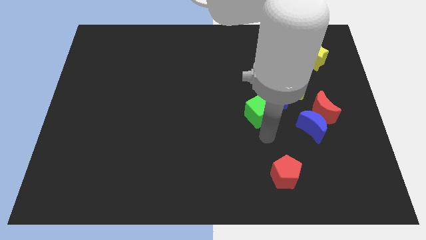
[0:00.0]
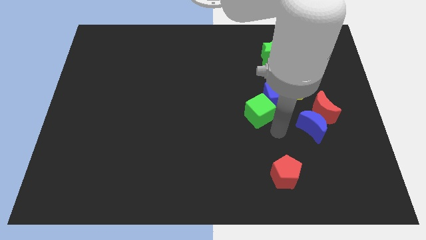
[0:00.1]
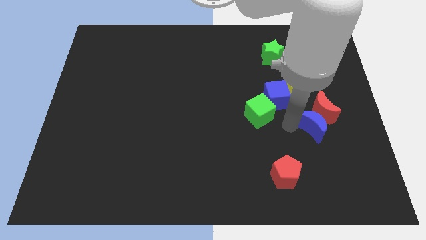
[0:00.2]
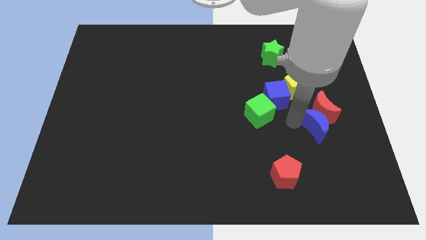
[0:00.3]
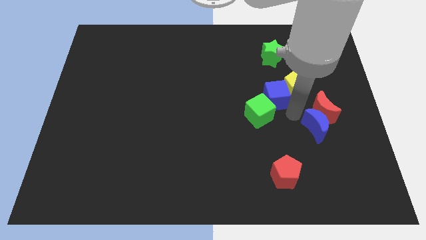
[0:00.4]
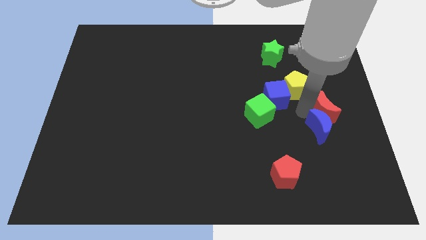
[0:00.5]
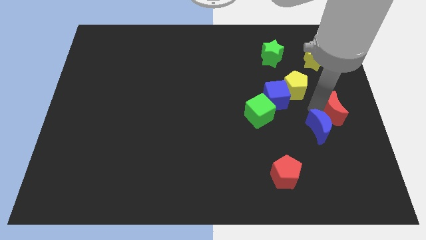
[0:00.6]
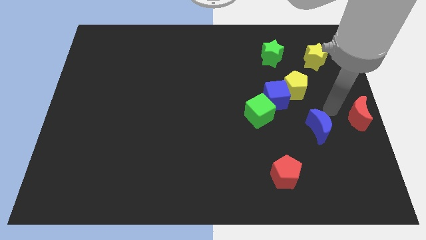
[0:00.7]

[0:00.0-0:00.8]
separate the blue moon from the red moon

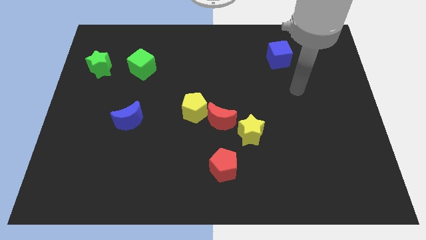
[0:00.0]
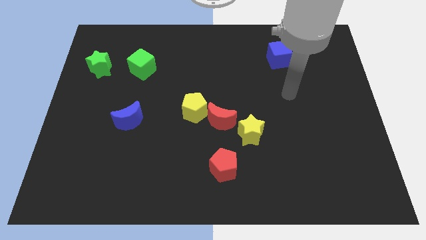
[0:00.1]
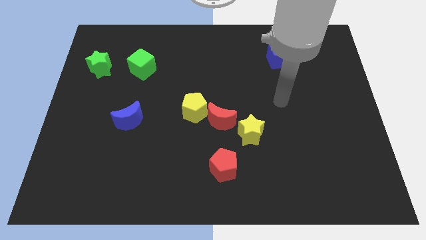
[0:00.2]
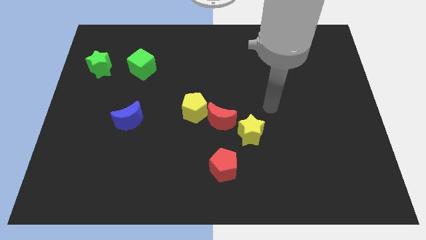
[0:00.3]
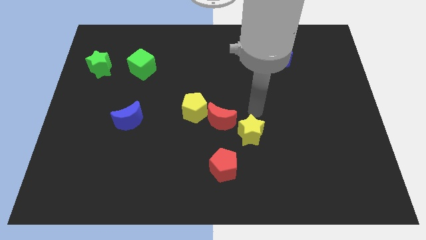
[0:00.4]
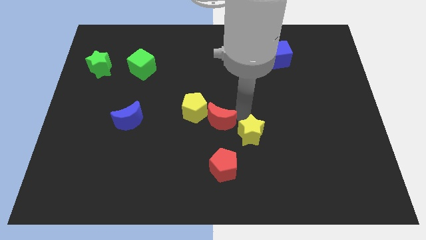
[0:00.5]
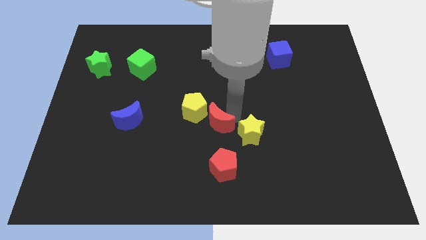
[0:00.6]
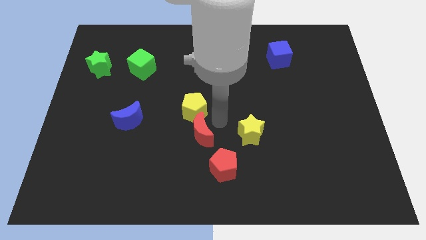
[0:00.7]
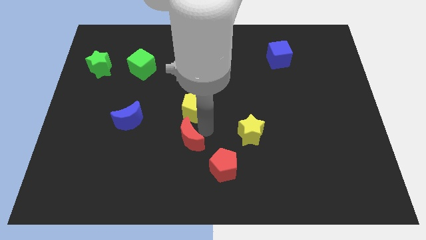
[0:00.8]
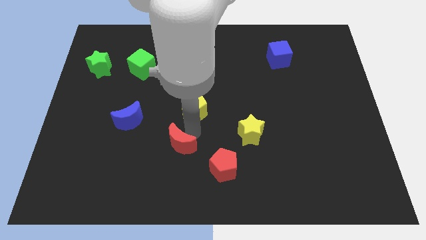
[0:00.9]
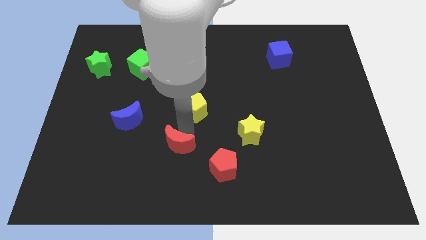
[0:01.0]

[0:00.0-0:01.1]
separate the yellow pentagon from the red moon

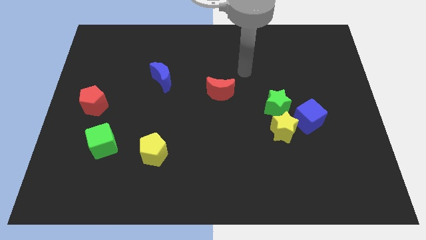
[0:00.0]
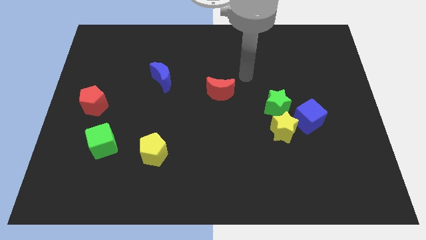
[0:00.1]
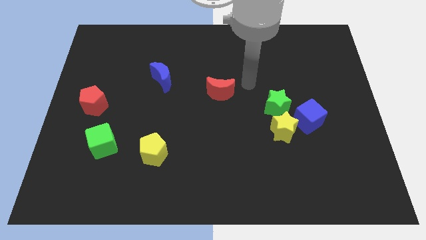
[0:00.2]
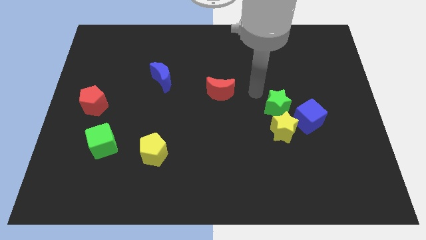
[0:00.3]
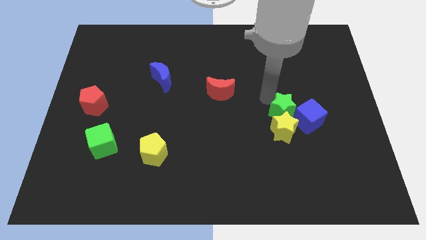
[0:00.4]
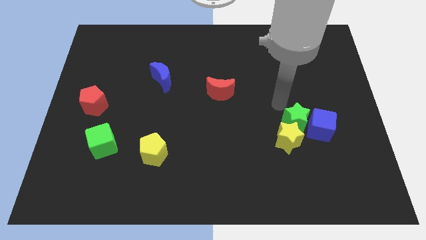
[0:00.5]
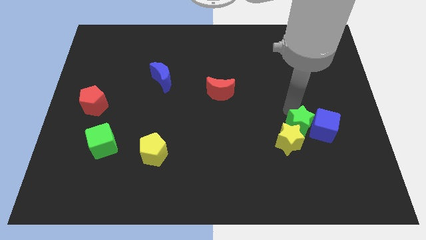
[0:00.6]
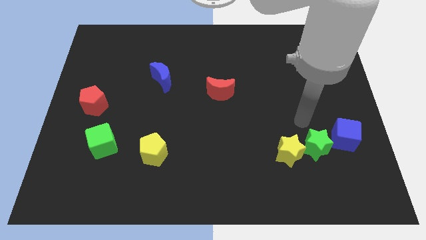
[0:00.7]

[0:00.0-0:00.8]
separate the yellow star from the green star and blue cube

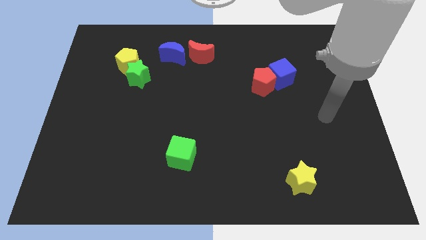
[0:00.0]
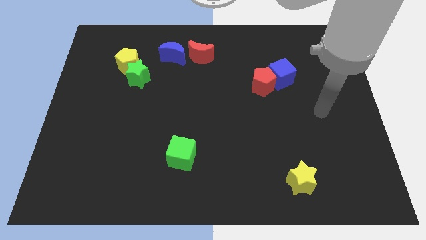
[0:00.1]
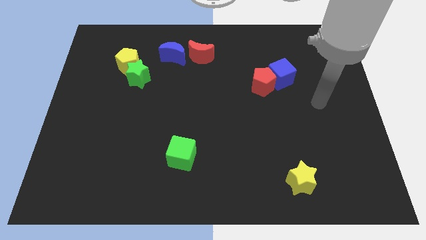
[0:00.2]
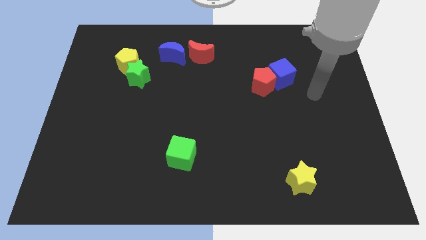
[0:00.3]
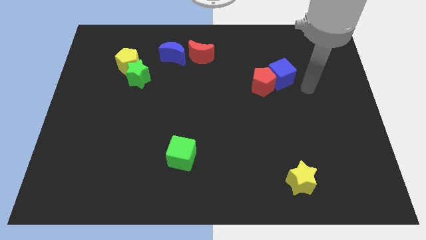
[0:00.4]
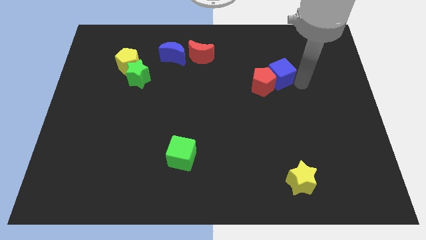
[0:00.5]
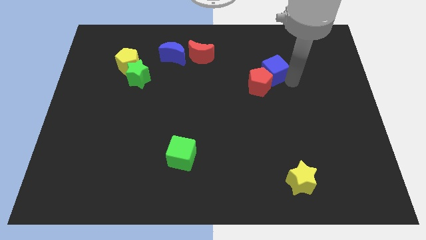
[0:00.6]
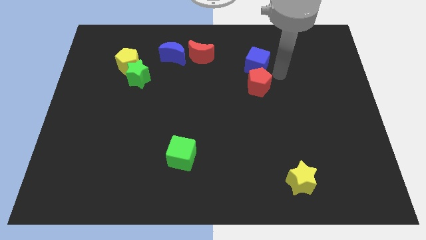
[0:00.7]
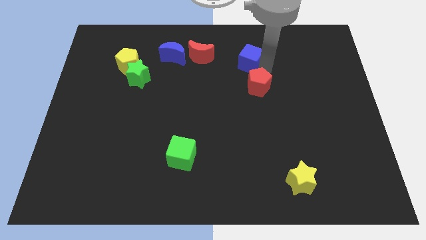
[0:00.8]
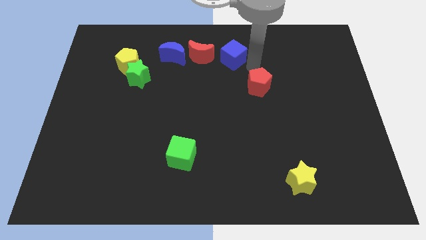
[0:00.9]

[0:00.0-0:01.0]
separate the red pentagon from the blue cube

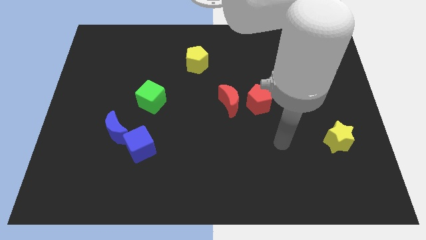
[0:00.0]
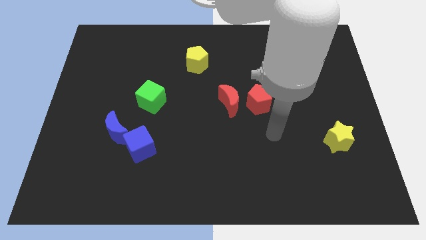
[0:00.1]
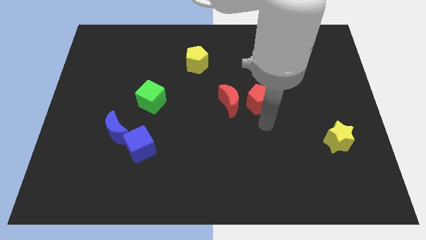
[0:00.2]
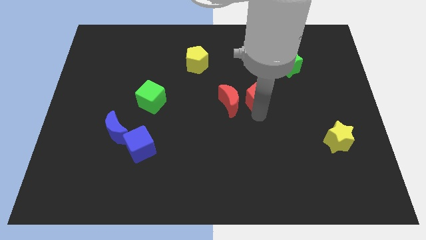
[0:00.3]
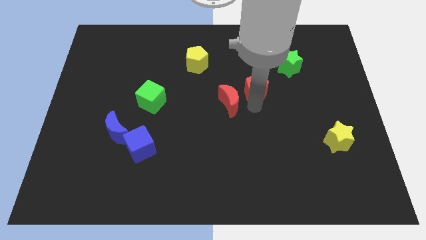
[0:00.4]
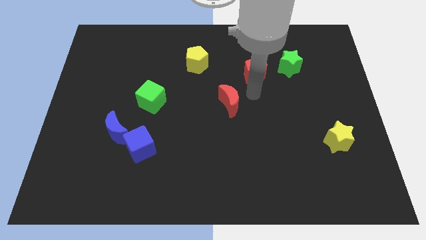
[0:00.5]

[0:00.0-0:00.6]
separate the red moon from the red pentagon

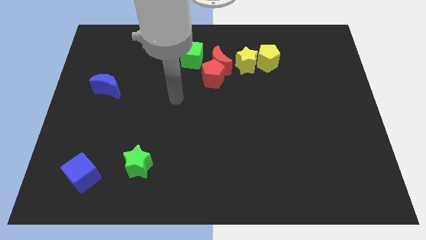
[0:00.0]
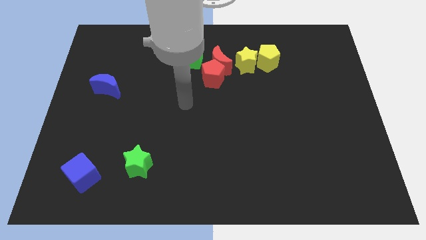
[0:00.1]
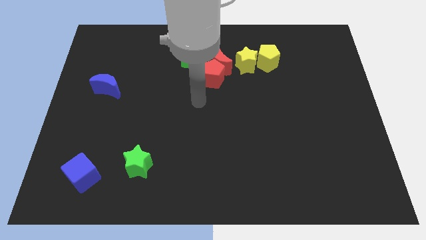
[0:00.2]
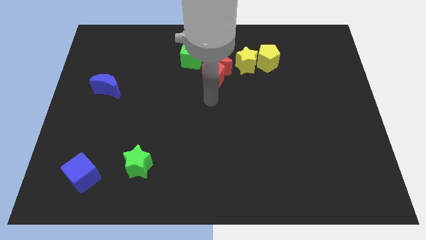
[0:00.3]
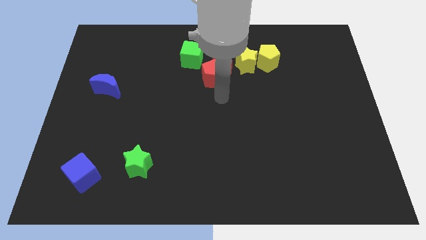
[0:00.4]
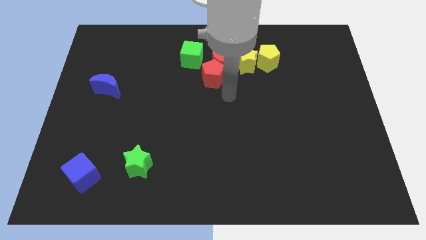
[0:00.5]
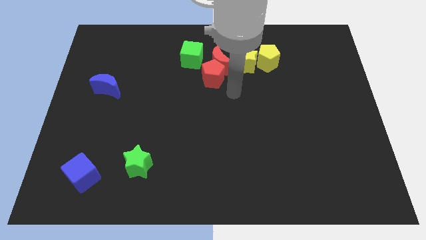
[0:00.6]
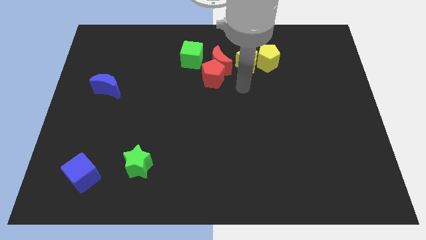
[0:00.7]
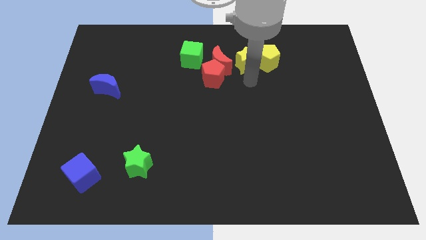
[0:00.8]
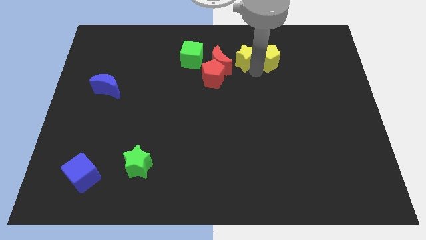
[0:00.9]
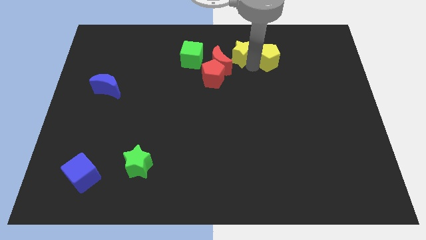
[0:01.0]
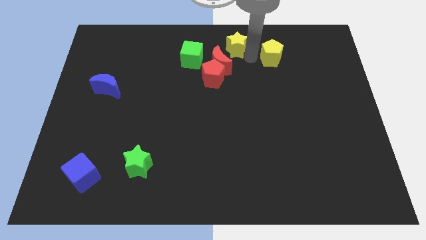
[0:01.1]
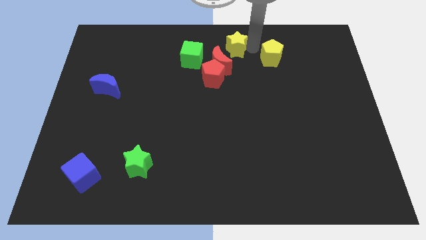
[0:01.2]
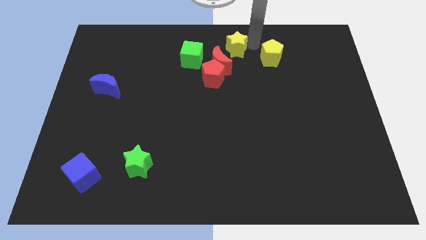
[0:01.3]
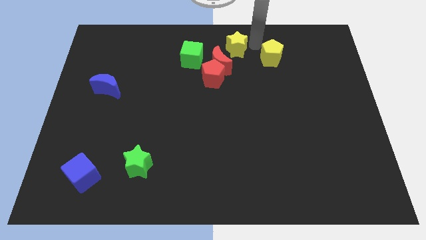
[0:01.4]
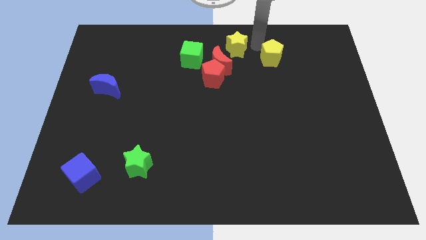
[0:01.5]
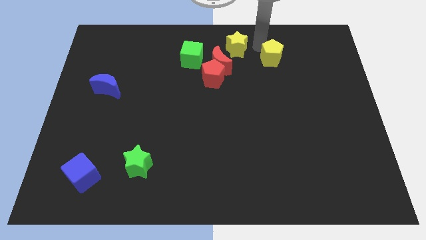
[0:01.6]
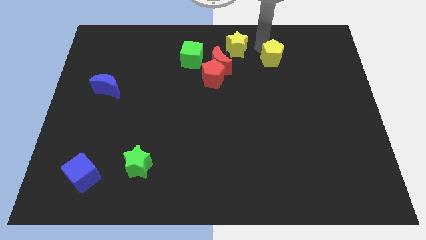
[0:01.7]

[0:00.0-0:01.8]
separate the yellow pentagon from the yellow star

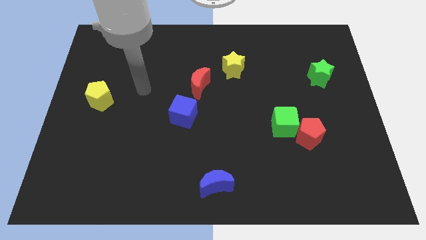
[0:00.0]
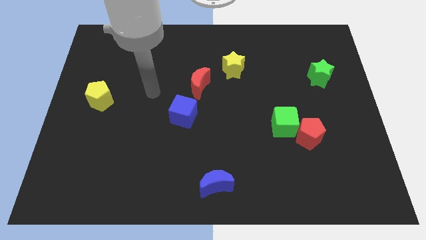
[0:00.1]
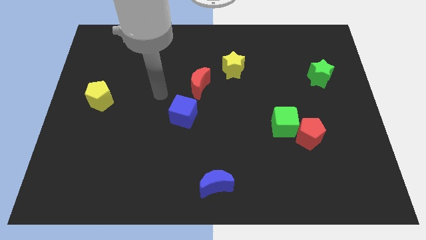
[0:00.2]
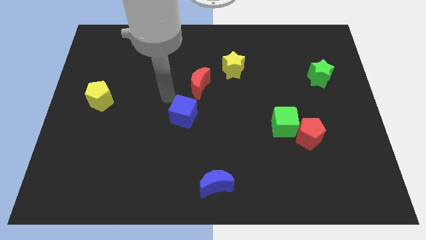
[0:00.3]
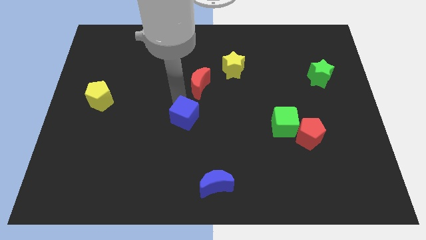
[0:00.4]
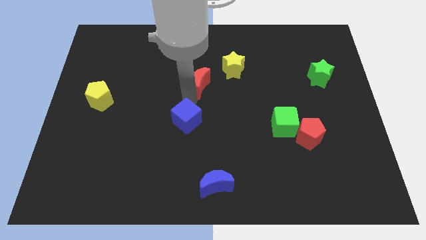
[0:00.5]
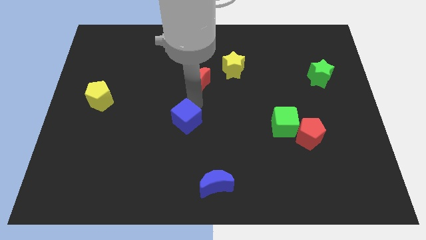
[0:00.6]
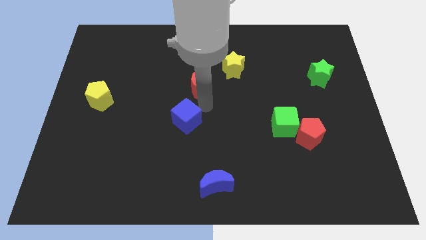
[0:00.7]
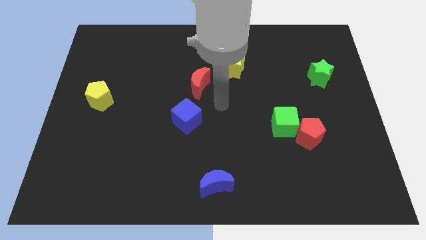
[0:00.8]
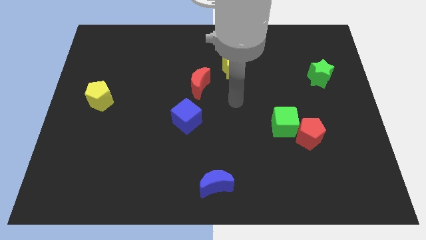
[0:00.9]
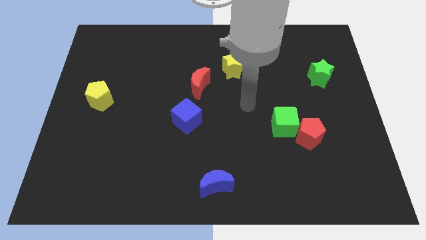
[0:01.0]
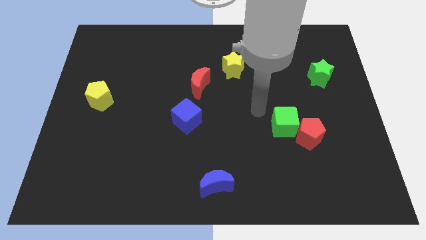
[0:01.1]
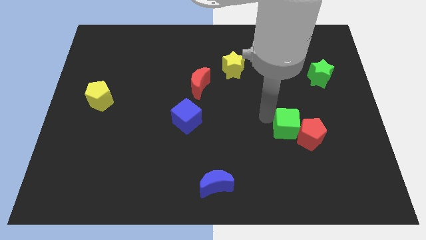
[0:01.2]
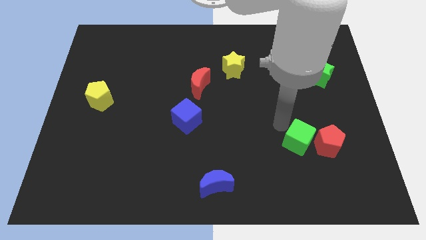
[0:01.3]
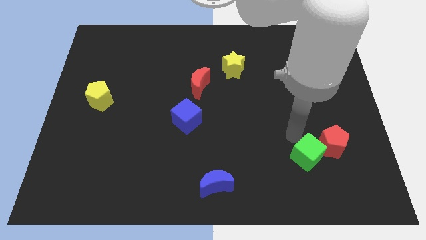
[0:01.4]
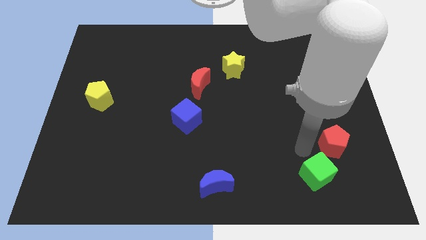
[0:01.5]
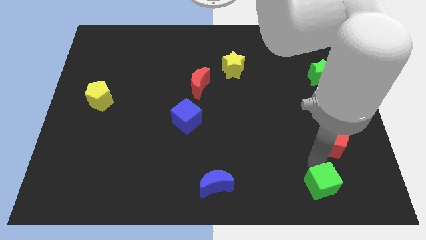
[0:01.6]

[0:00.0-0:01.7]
pull the red pentagon apart from the green cube

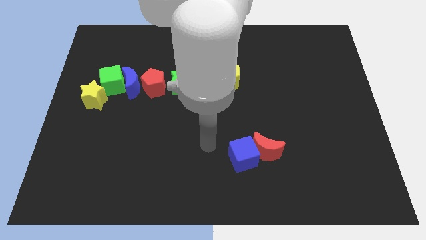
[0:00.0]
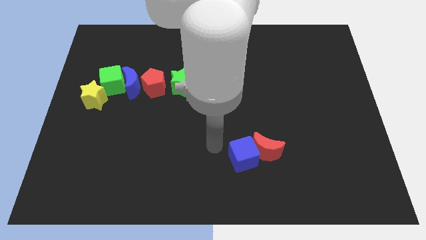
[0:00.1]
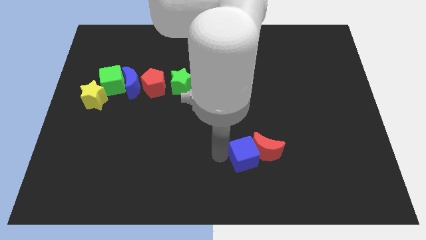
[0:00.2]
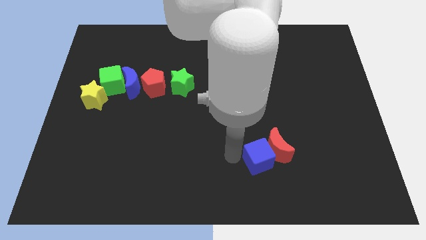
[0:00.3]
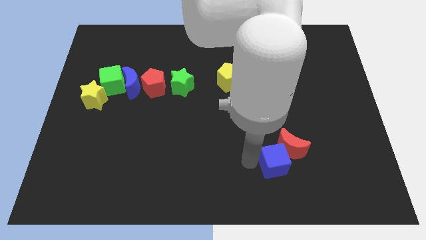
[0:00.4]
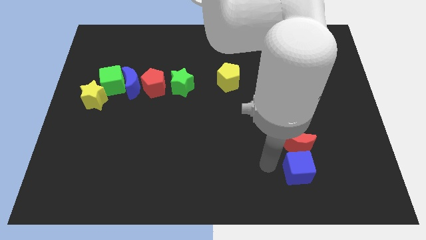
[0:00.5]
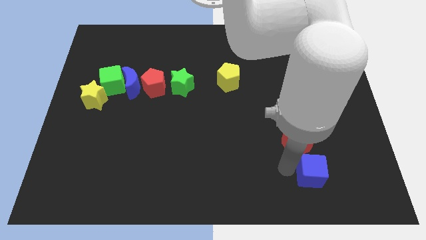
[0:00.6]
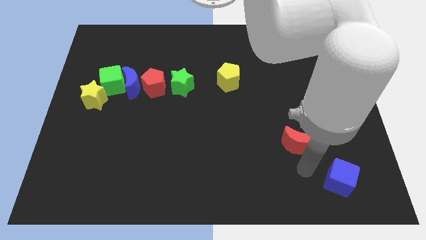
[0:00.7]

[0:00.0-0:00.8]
separate the red moon from the blue cube

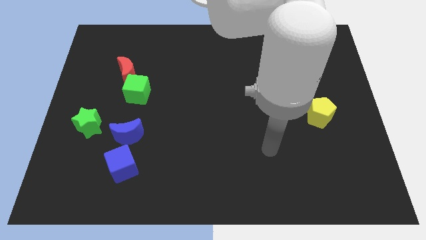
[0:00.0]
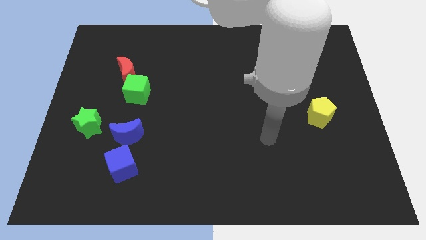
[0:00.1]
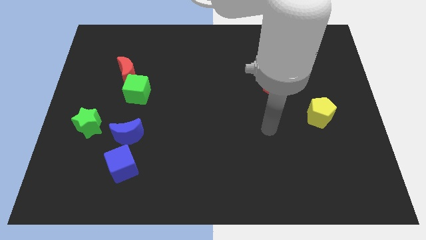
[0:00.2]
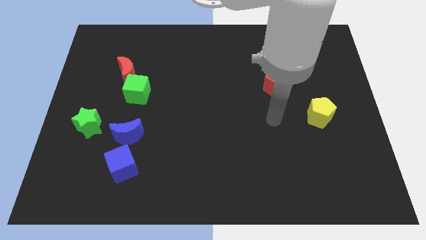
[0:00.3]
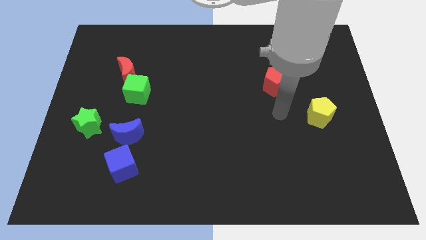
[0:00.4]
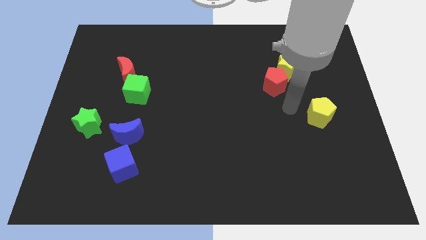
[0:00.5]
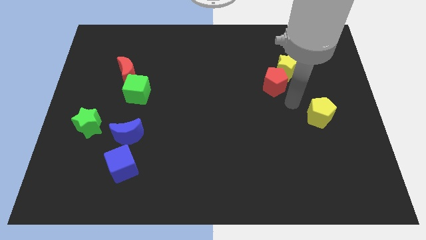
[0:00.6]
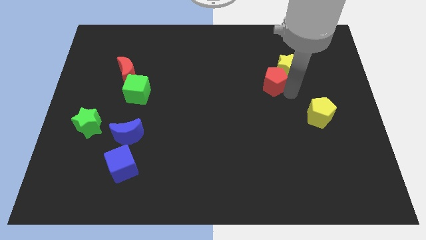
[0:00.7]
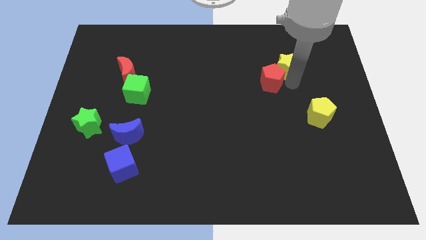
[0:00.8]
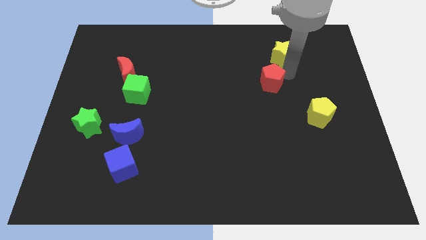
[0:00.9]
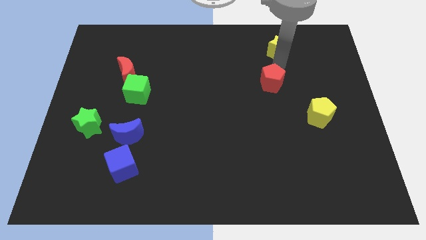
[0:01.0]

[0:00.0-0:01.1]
pull the red pentagon apart from the yellow star
